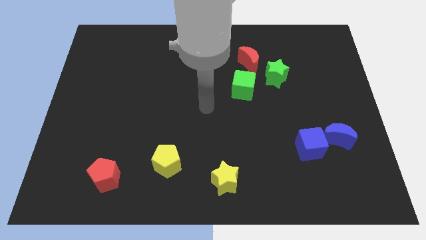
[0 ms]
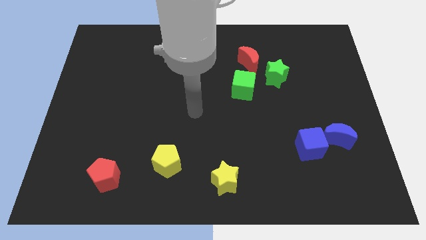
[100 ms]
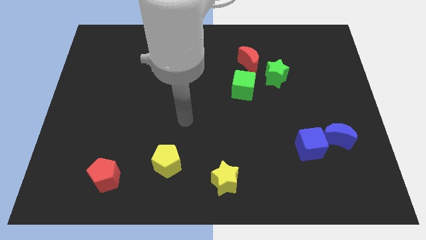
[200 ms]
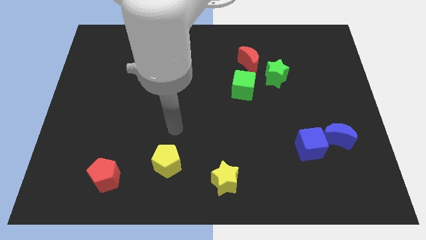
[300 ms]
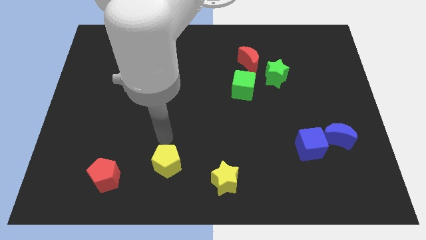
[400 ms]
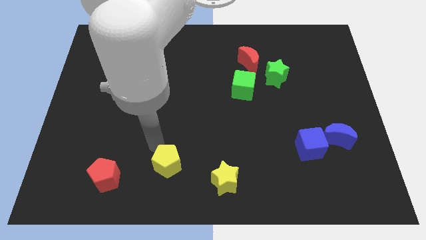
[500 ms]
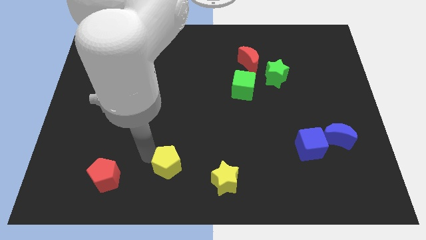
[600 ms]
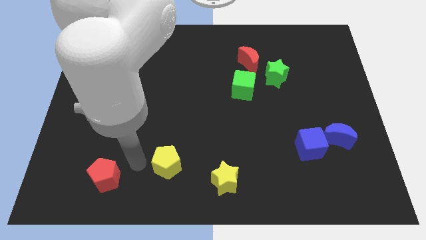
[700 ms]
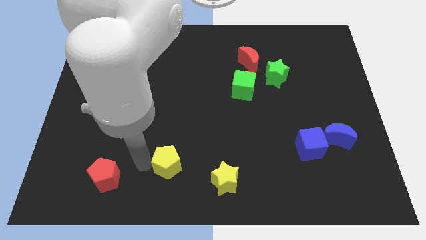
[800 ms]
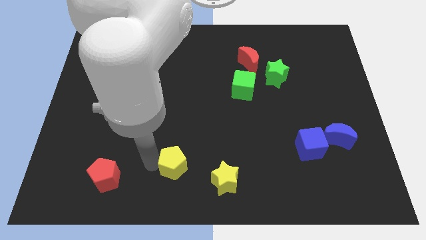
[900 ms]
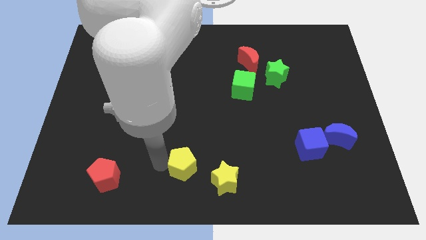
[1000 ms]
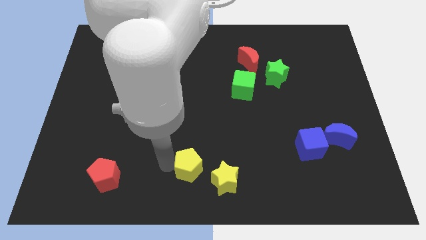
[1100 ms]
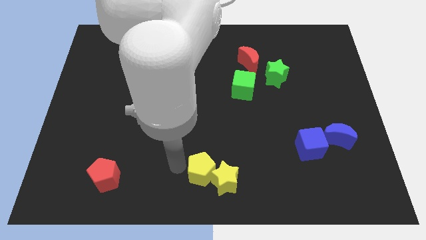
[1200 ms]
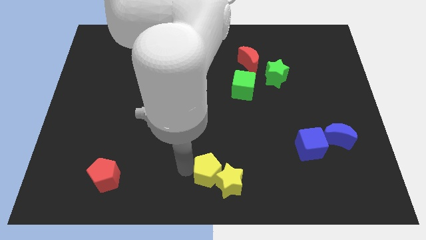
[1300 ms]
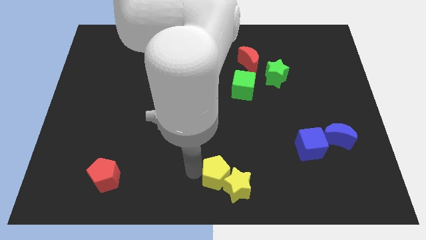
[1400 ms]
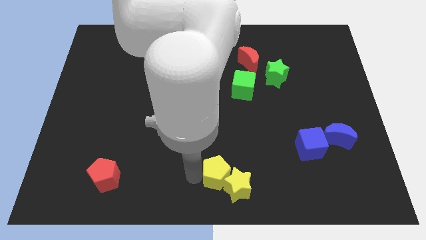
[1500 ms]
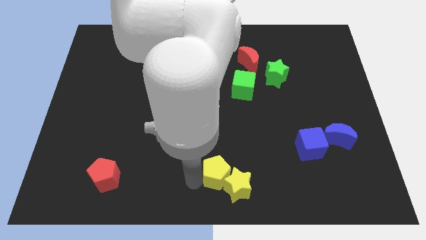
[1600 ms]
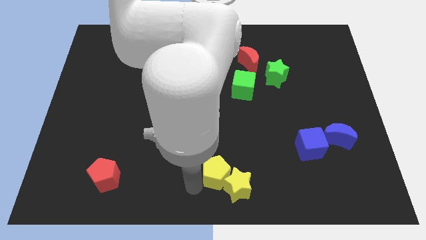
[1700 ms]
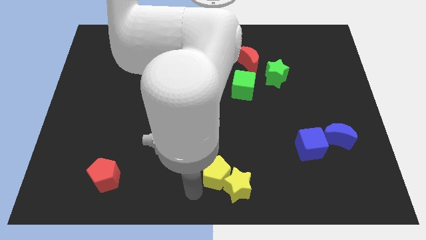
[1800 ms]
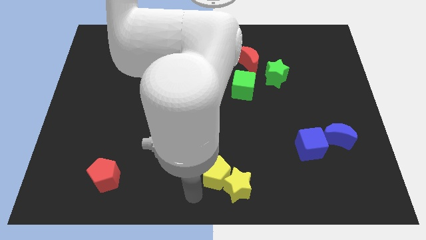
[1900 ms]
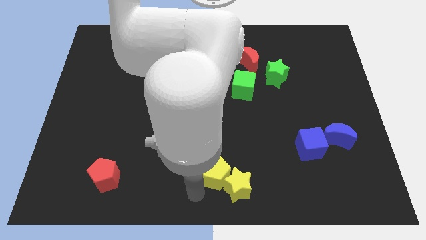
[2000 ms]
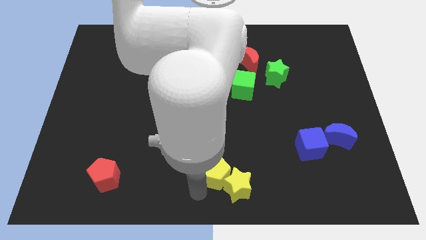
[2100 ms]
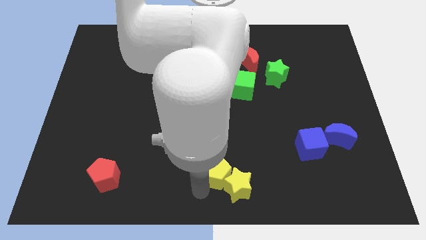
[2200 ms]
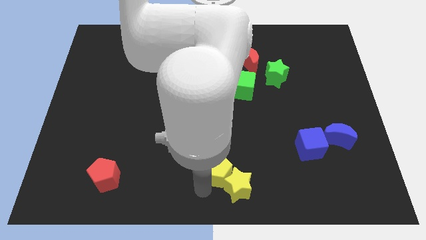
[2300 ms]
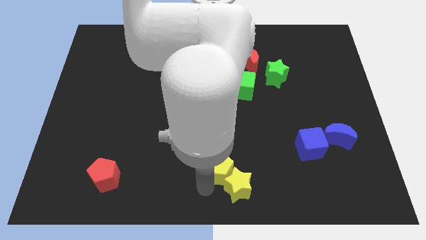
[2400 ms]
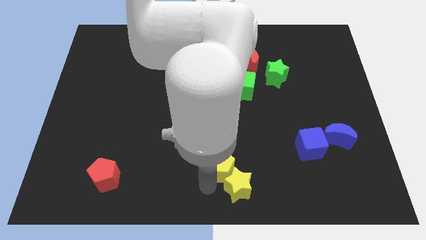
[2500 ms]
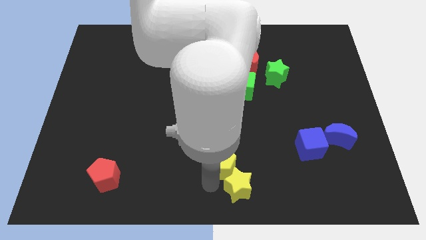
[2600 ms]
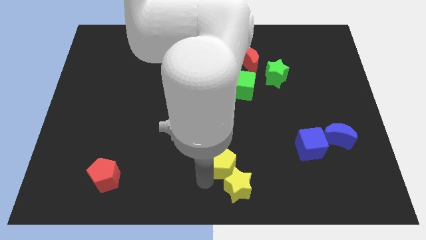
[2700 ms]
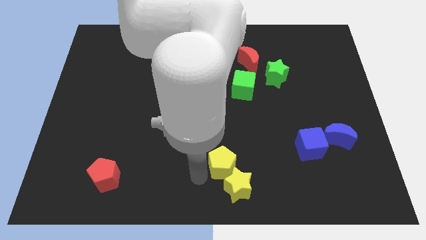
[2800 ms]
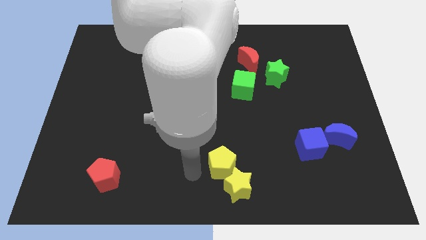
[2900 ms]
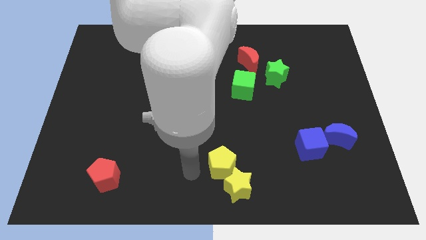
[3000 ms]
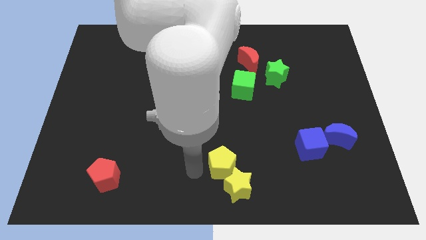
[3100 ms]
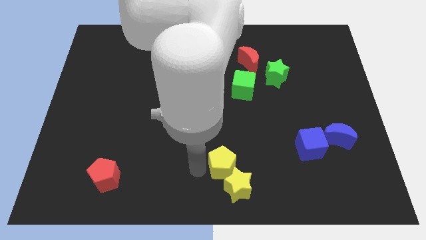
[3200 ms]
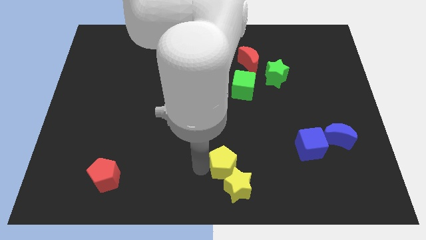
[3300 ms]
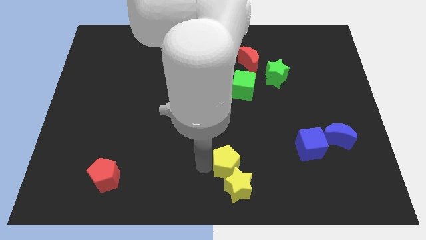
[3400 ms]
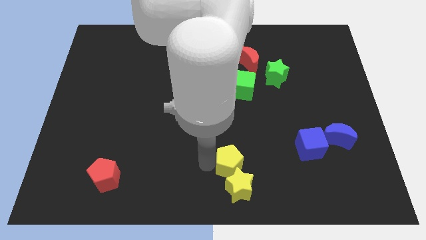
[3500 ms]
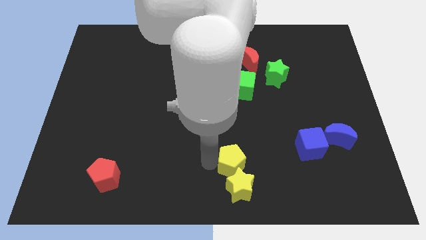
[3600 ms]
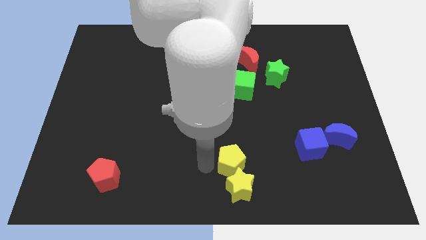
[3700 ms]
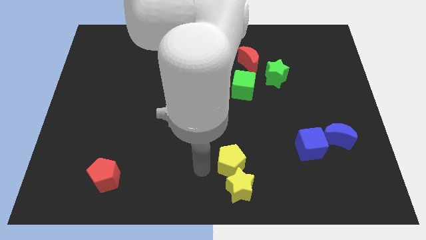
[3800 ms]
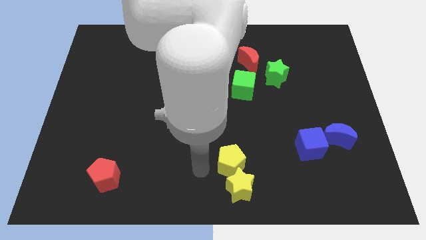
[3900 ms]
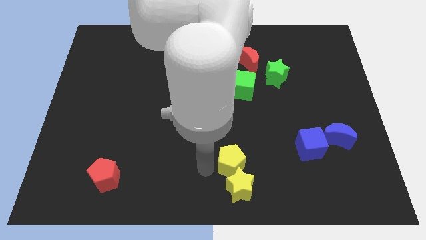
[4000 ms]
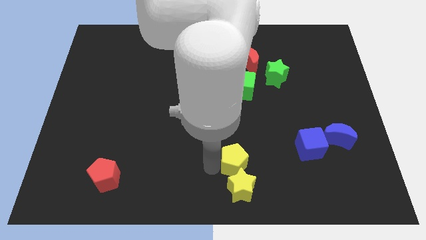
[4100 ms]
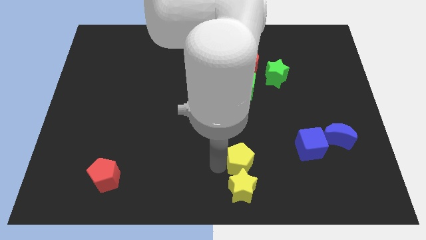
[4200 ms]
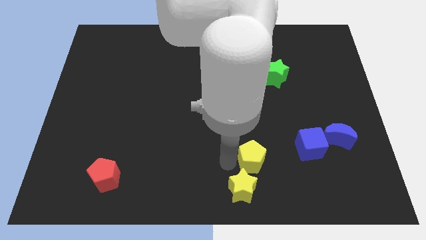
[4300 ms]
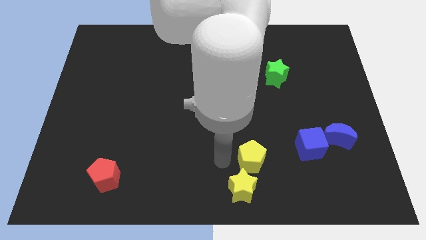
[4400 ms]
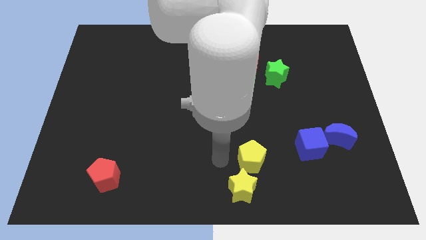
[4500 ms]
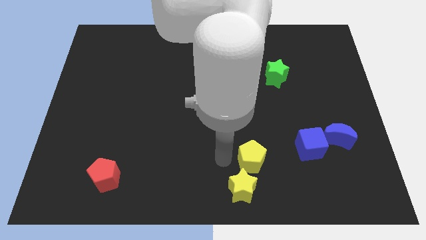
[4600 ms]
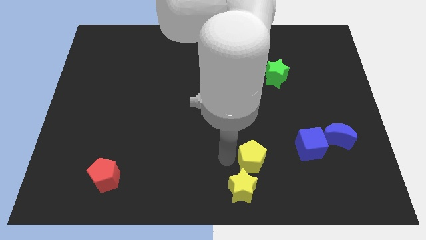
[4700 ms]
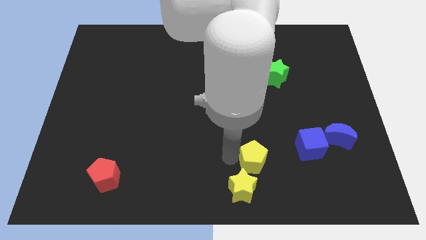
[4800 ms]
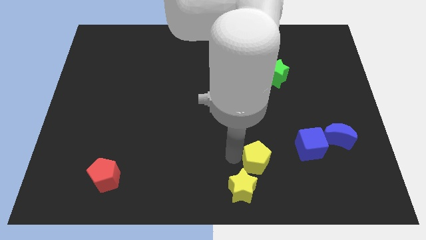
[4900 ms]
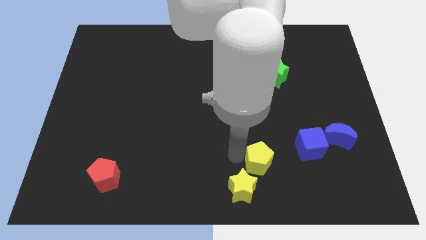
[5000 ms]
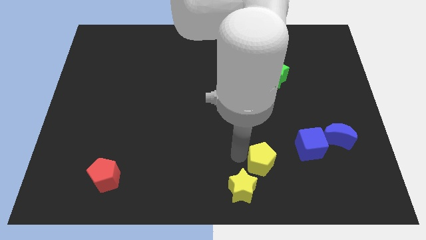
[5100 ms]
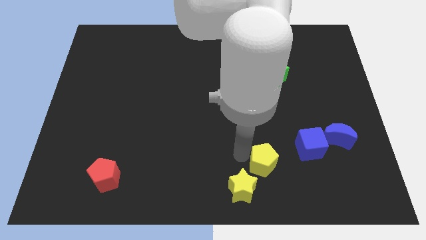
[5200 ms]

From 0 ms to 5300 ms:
slide the yellow pentagon right

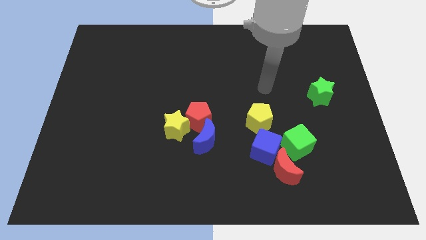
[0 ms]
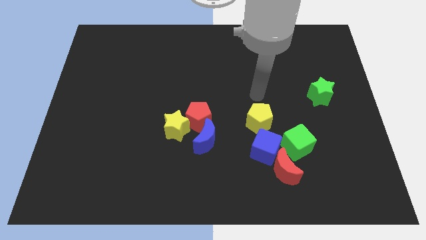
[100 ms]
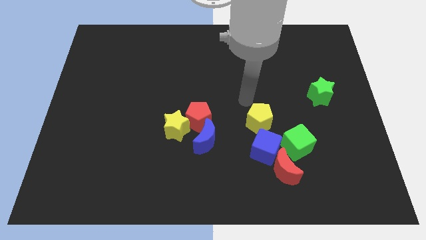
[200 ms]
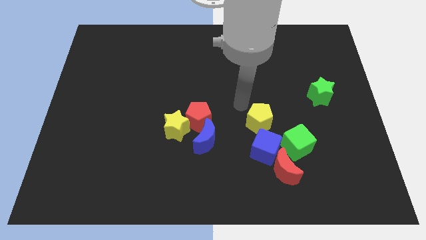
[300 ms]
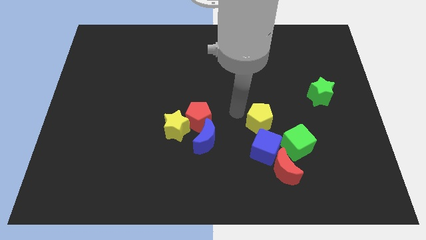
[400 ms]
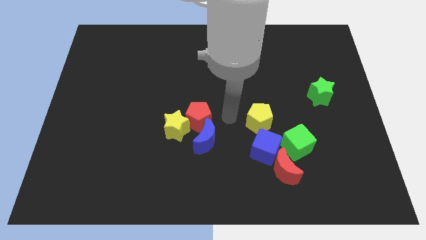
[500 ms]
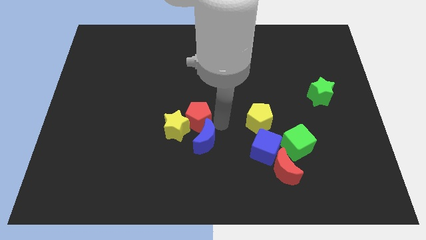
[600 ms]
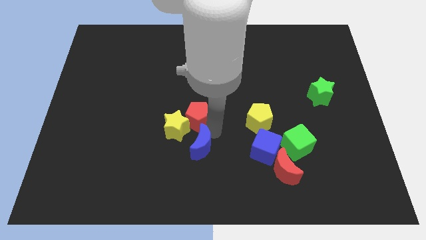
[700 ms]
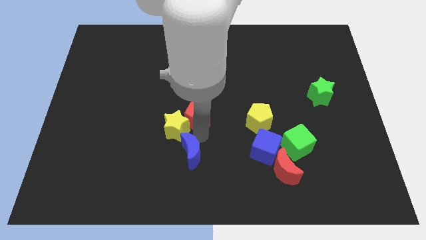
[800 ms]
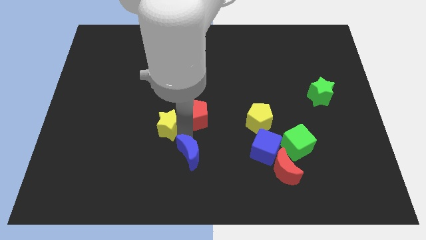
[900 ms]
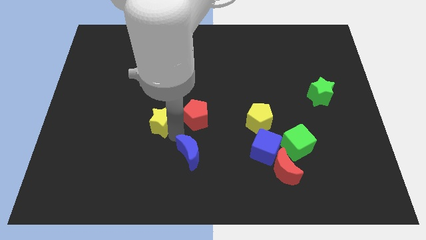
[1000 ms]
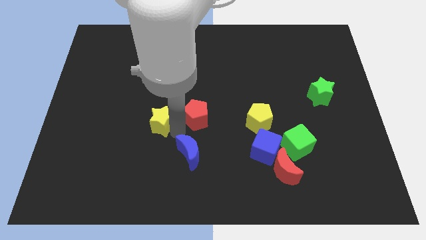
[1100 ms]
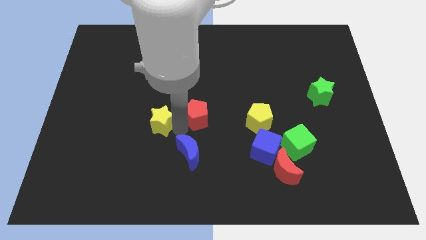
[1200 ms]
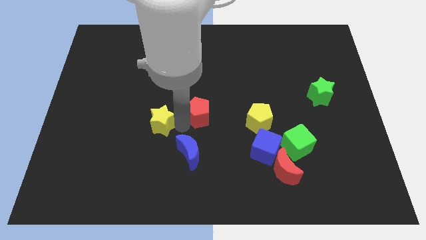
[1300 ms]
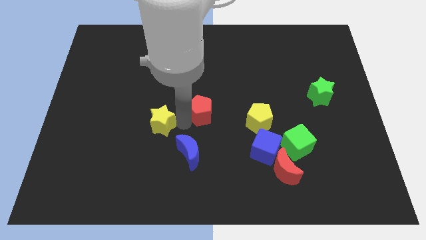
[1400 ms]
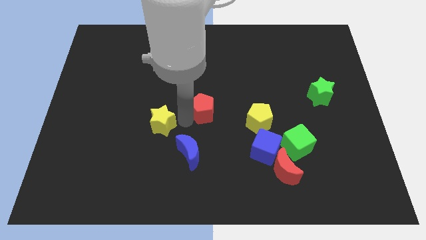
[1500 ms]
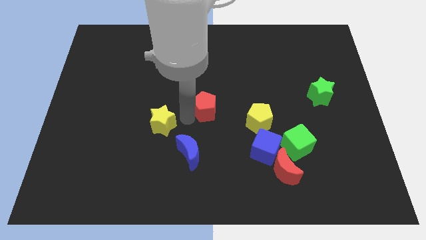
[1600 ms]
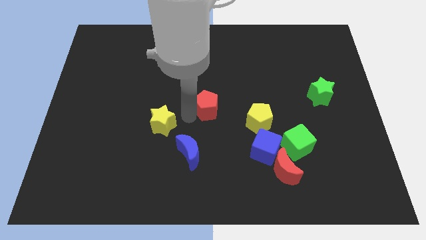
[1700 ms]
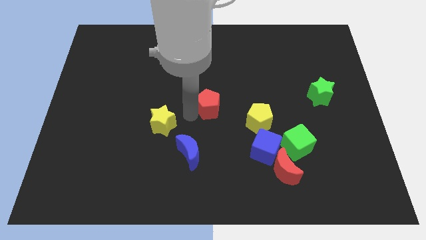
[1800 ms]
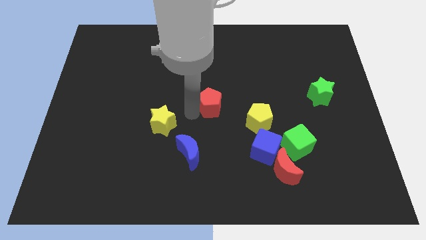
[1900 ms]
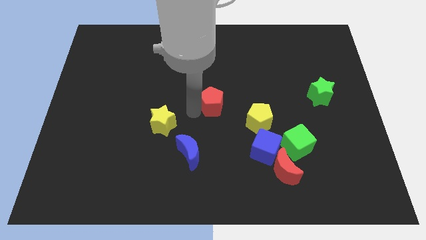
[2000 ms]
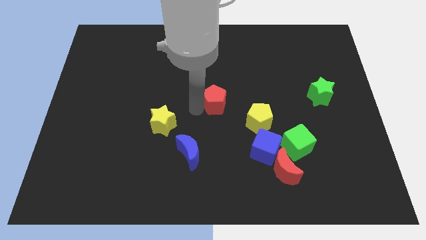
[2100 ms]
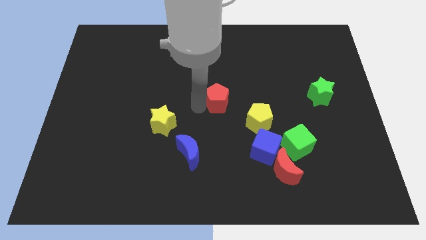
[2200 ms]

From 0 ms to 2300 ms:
push the red pentagon a bit up and right diagonally

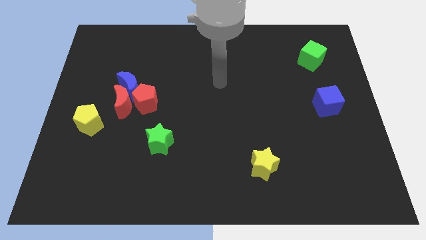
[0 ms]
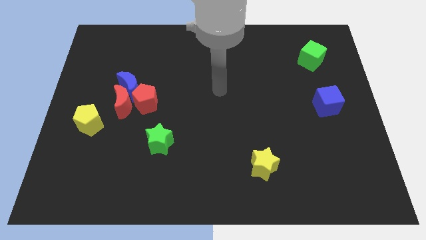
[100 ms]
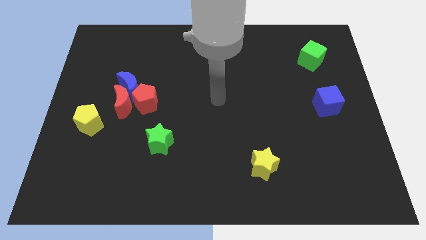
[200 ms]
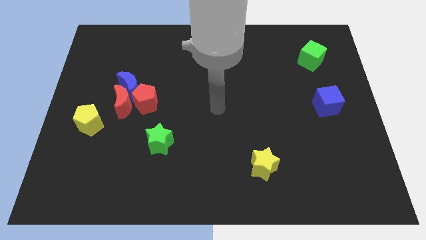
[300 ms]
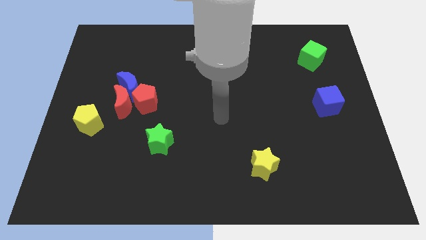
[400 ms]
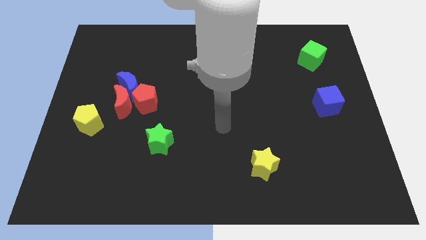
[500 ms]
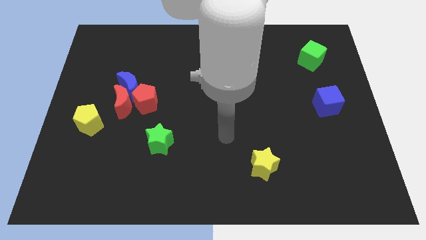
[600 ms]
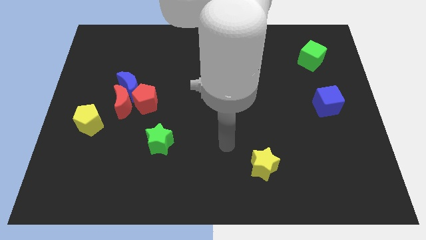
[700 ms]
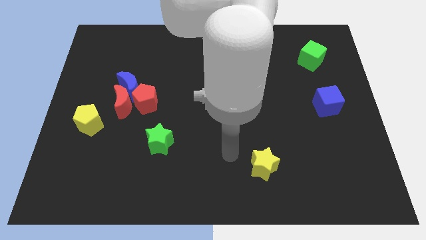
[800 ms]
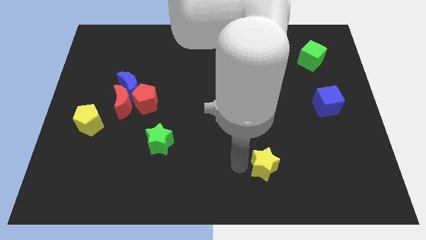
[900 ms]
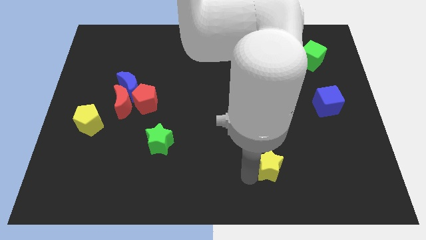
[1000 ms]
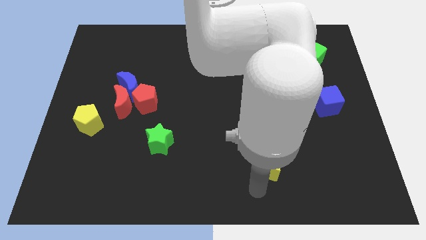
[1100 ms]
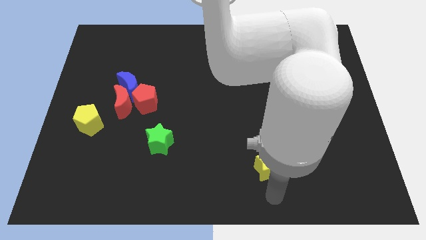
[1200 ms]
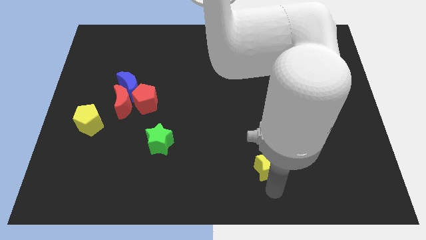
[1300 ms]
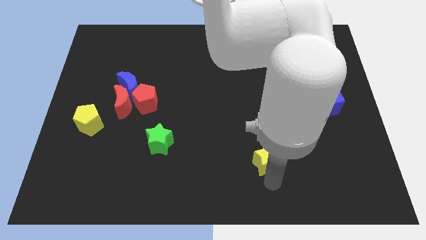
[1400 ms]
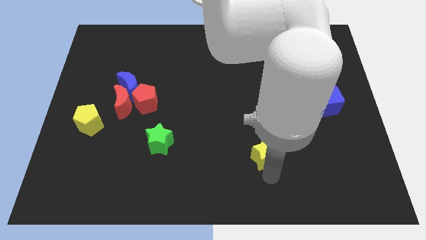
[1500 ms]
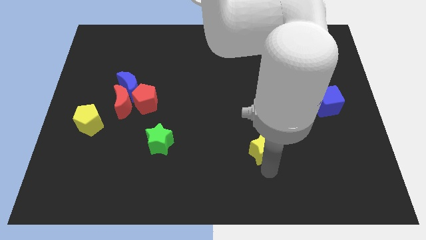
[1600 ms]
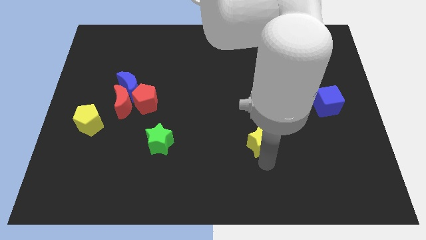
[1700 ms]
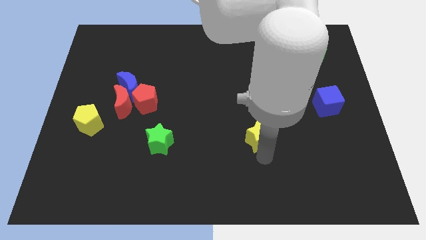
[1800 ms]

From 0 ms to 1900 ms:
move the yellow star upwards somewhat
